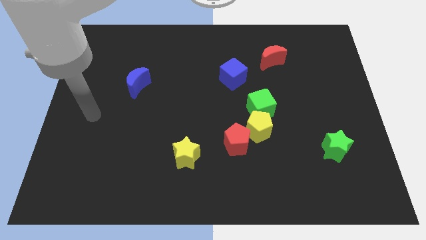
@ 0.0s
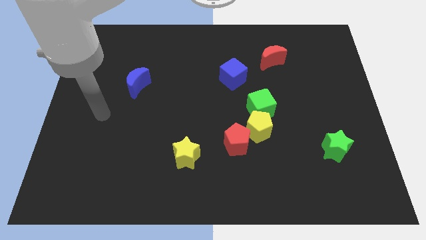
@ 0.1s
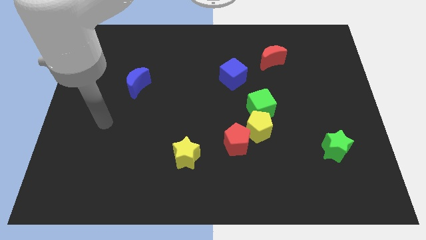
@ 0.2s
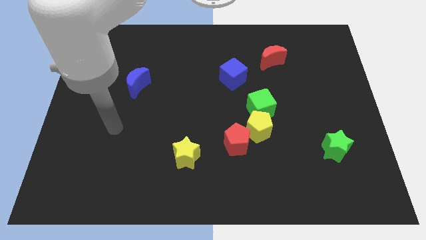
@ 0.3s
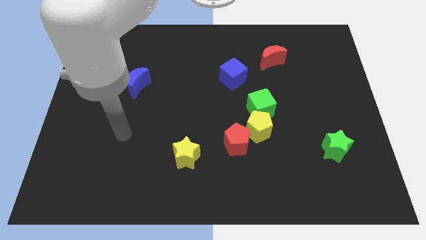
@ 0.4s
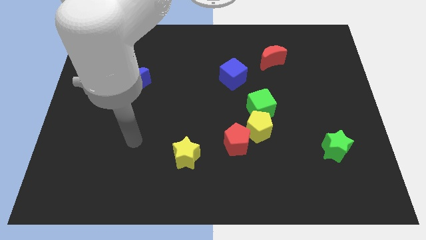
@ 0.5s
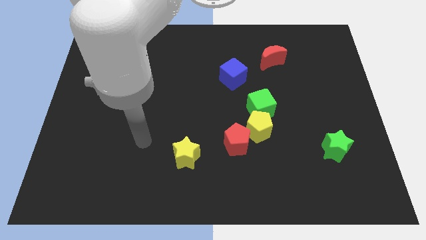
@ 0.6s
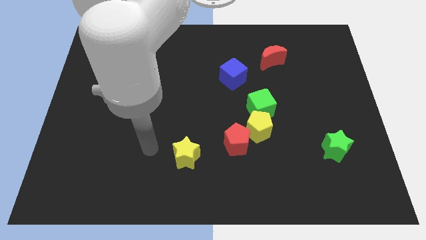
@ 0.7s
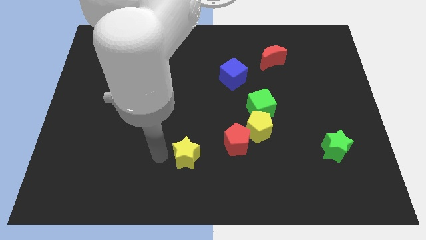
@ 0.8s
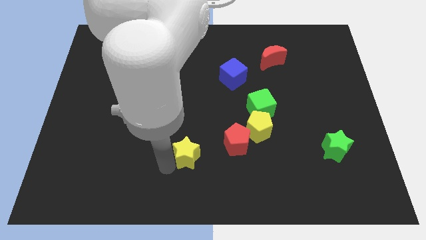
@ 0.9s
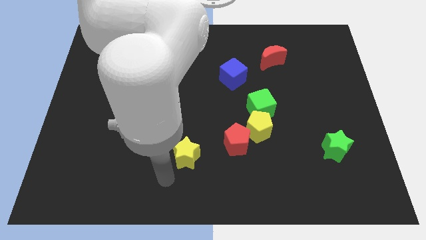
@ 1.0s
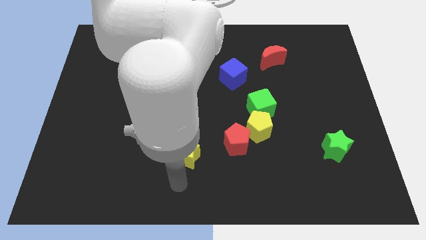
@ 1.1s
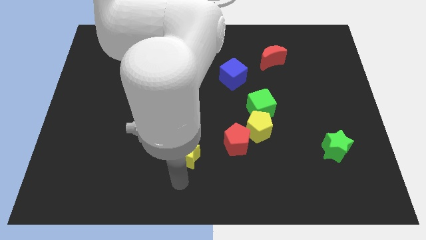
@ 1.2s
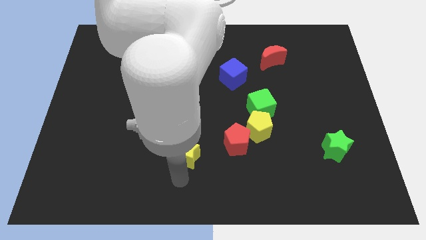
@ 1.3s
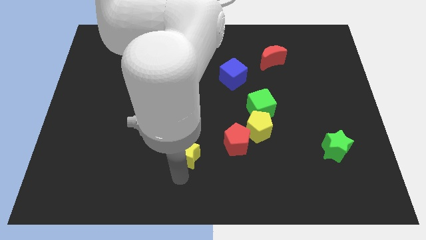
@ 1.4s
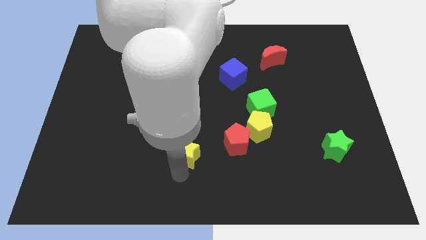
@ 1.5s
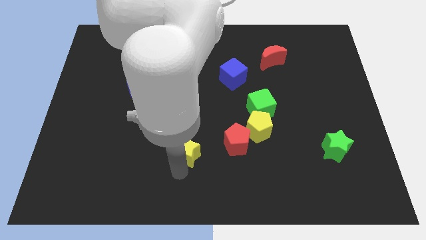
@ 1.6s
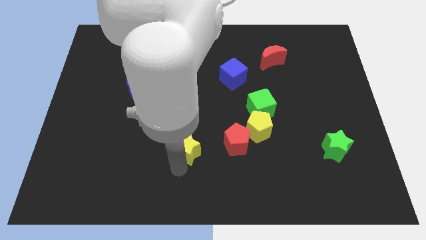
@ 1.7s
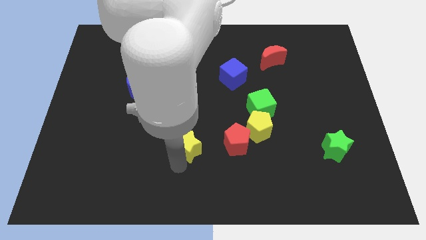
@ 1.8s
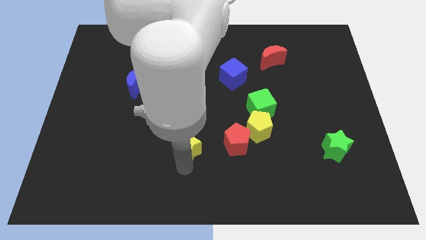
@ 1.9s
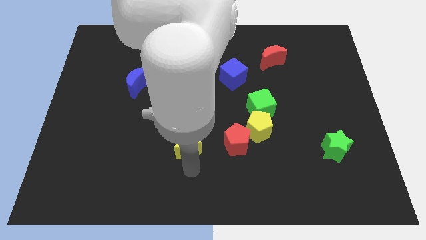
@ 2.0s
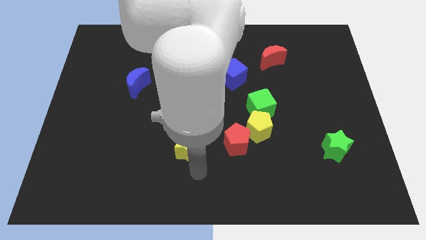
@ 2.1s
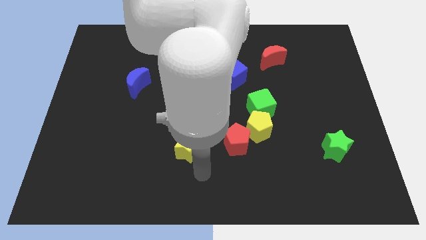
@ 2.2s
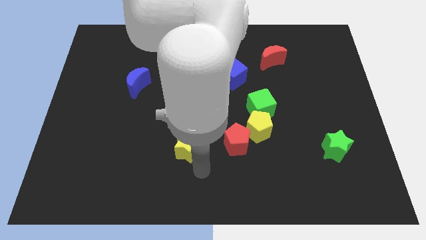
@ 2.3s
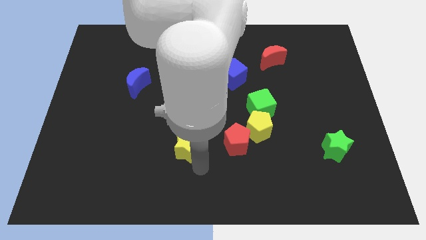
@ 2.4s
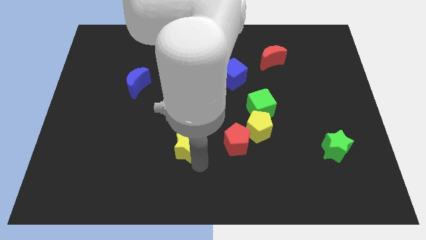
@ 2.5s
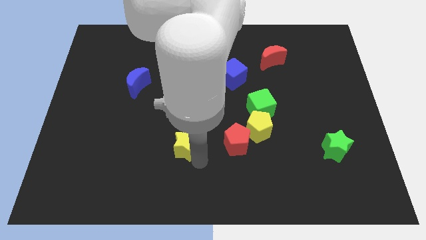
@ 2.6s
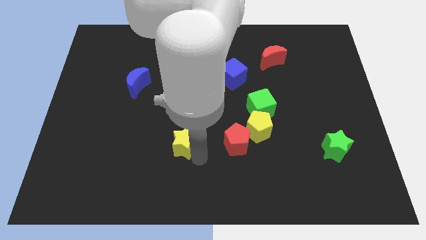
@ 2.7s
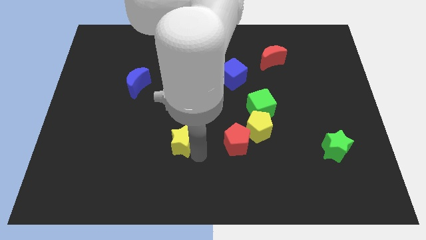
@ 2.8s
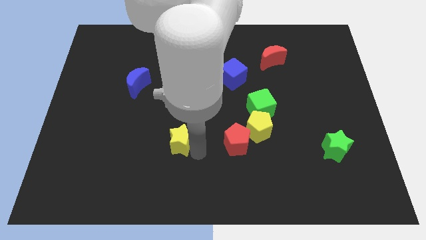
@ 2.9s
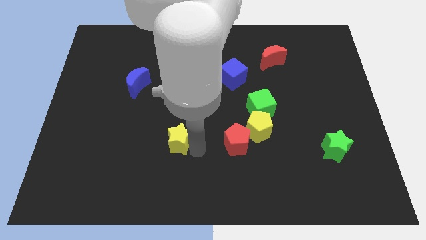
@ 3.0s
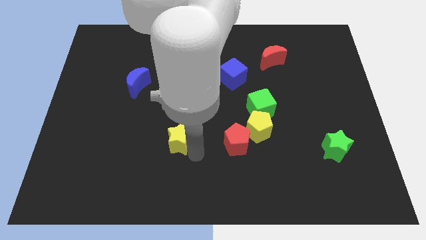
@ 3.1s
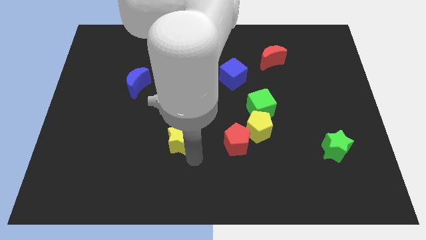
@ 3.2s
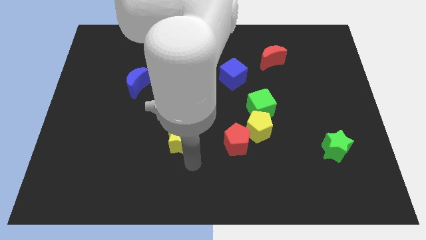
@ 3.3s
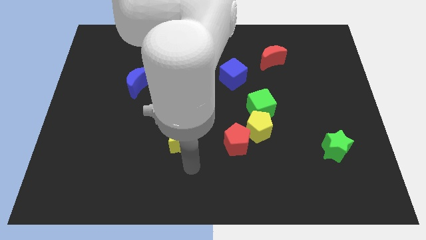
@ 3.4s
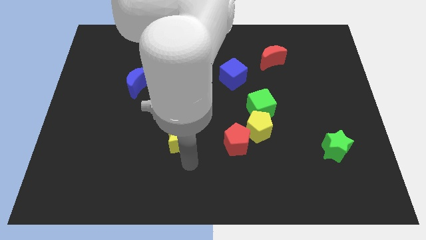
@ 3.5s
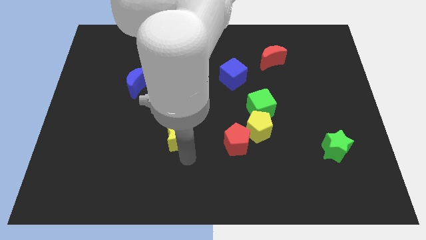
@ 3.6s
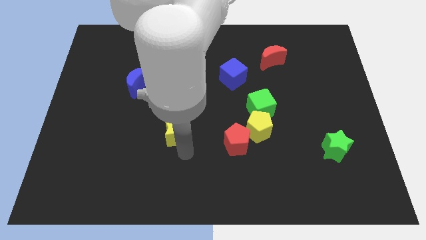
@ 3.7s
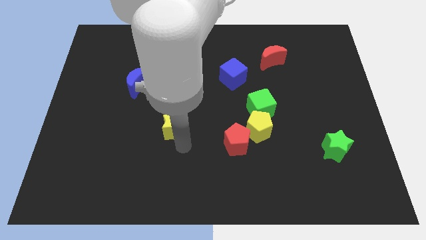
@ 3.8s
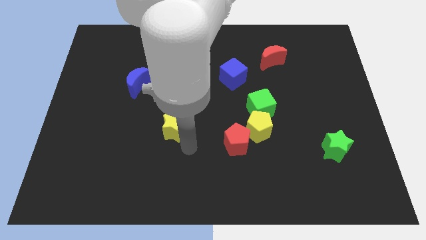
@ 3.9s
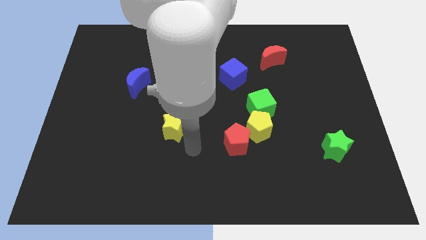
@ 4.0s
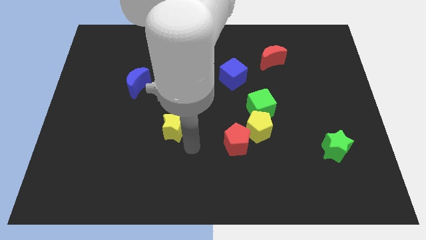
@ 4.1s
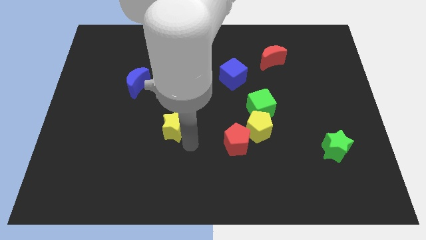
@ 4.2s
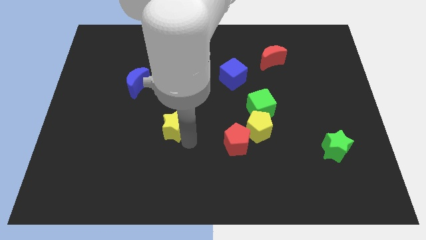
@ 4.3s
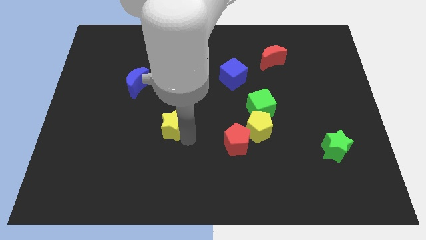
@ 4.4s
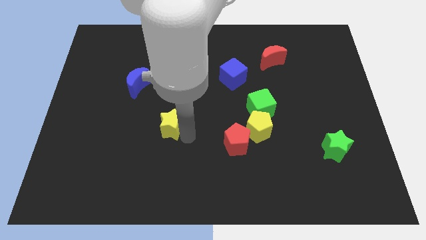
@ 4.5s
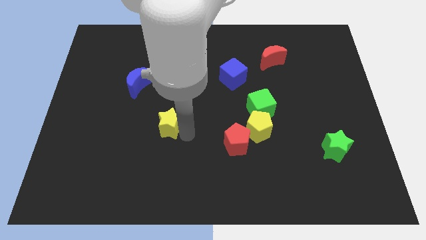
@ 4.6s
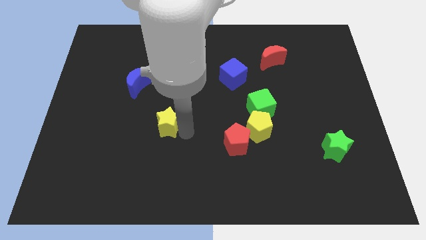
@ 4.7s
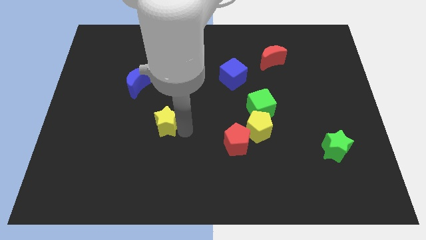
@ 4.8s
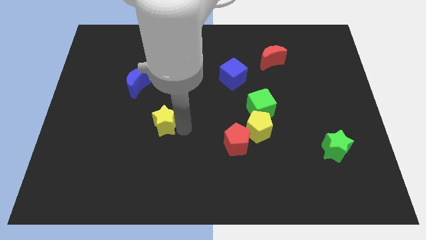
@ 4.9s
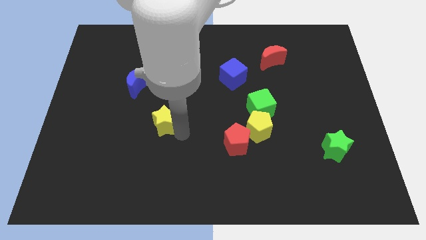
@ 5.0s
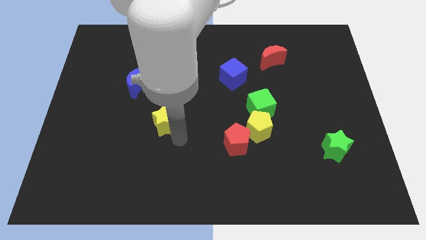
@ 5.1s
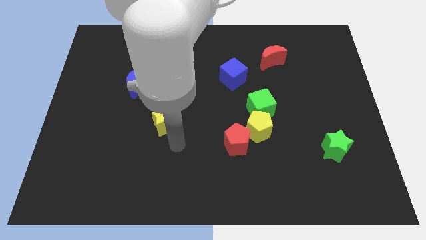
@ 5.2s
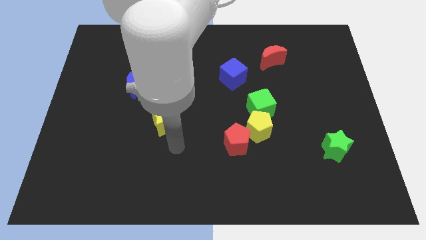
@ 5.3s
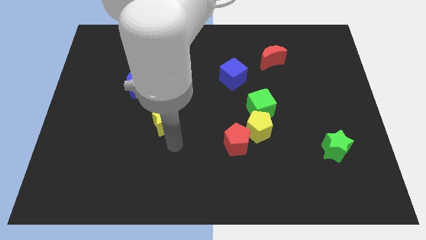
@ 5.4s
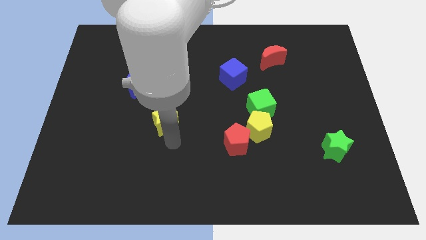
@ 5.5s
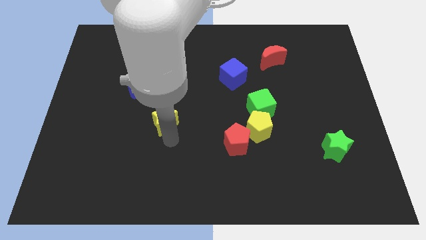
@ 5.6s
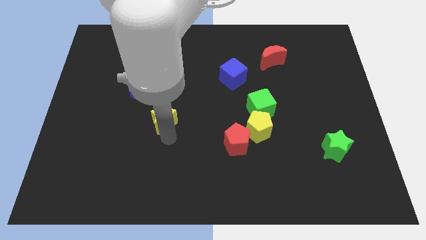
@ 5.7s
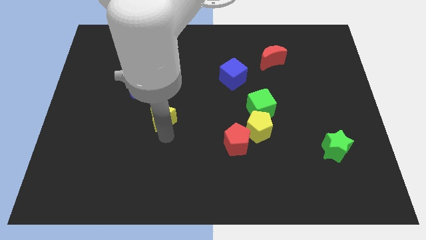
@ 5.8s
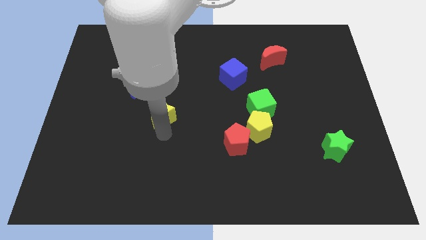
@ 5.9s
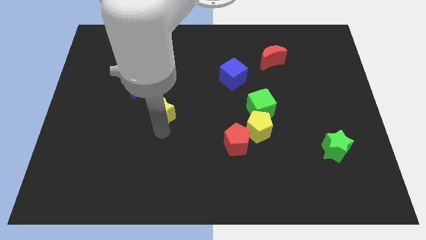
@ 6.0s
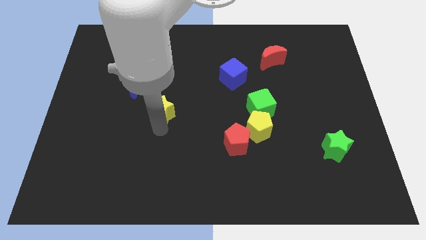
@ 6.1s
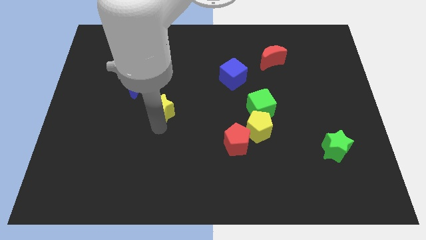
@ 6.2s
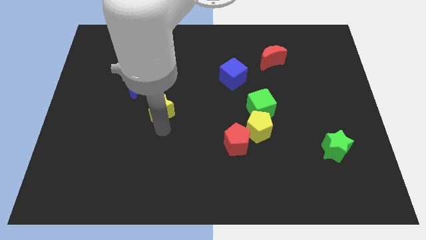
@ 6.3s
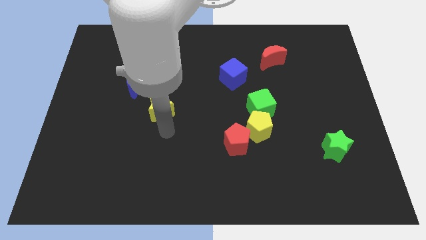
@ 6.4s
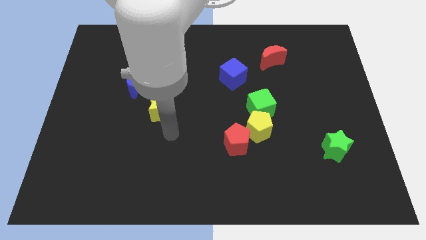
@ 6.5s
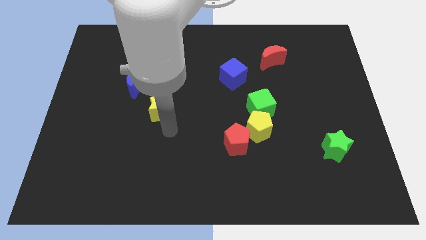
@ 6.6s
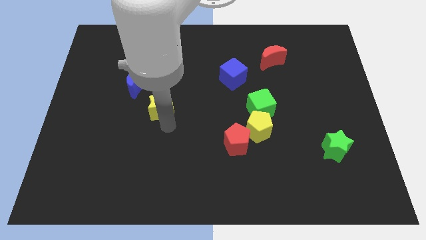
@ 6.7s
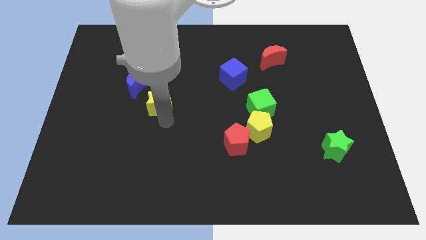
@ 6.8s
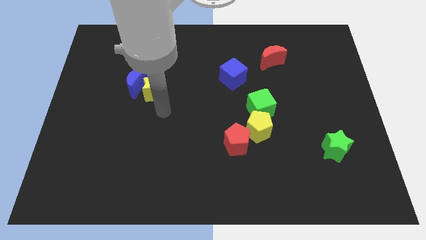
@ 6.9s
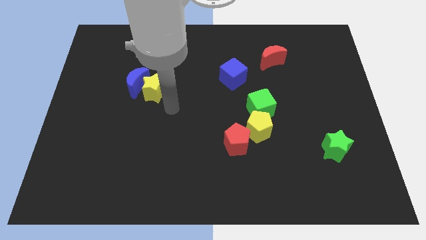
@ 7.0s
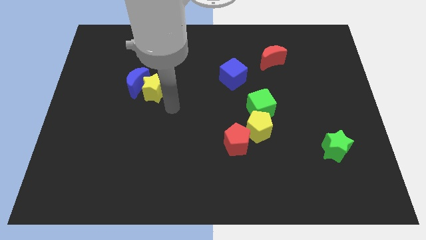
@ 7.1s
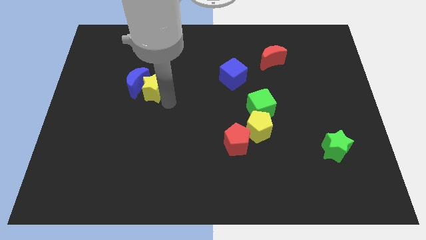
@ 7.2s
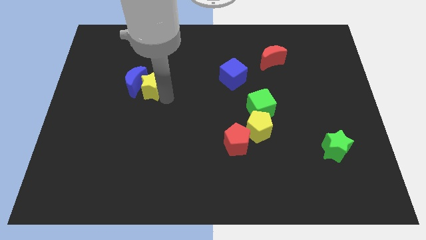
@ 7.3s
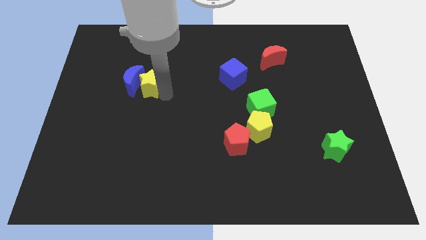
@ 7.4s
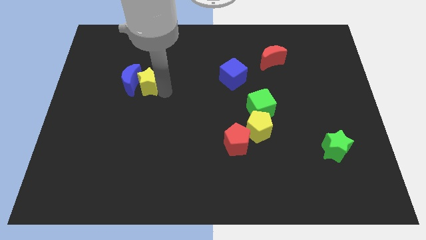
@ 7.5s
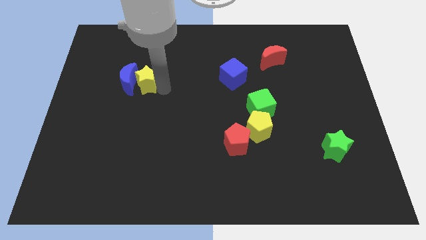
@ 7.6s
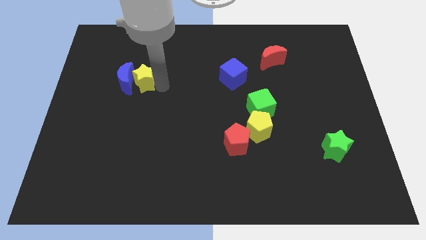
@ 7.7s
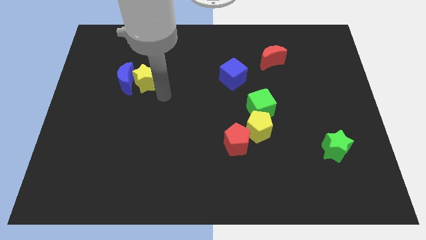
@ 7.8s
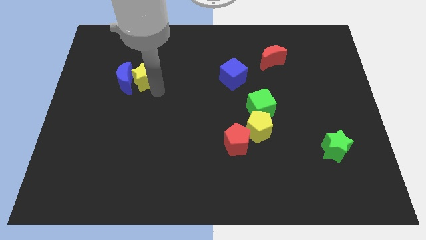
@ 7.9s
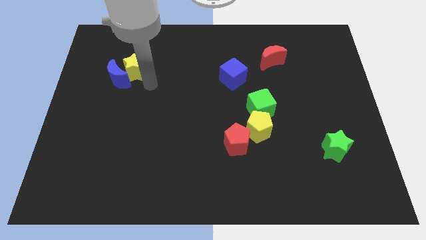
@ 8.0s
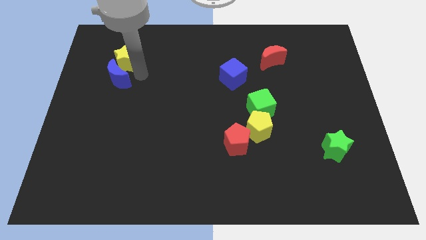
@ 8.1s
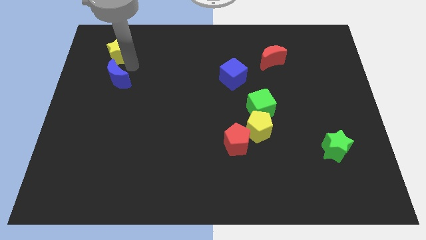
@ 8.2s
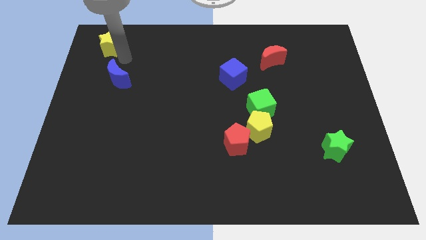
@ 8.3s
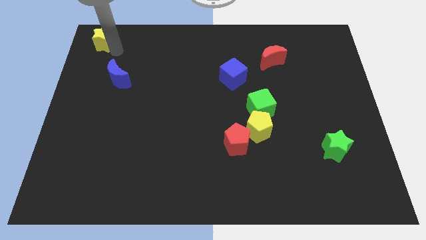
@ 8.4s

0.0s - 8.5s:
push the yellow star to the top left of the board
